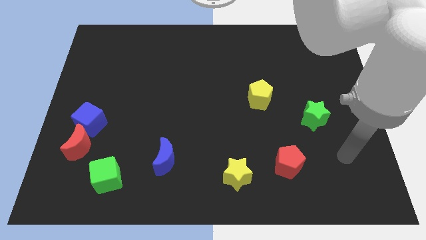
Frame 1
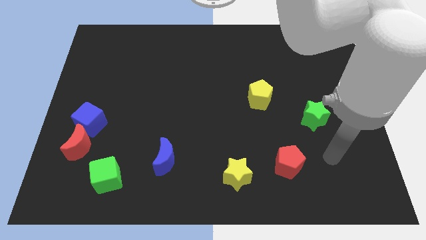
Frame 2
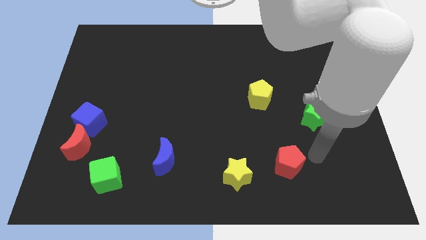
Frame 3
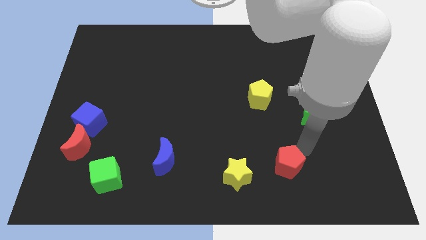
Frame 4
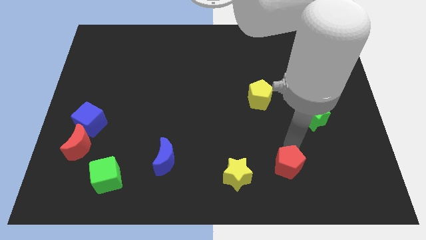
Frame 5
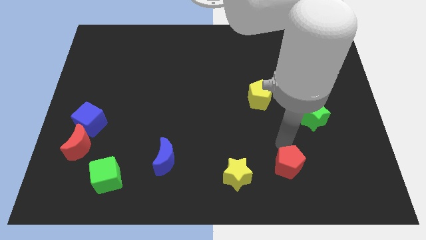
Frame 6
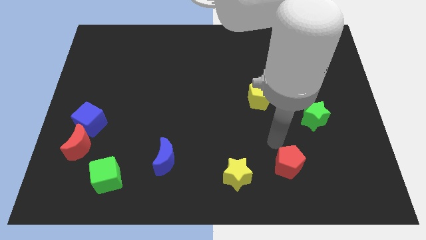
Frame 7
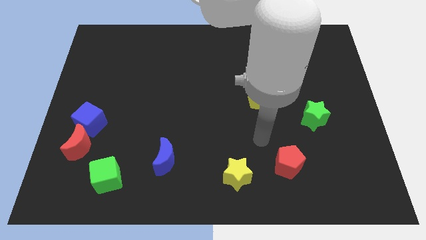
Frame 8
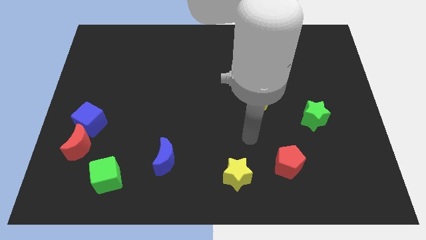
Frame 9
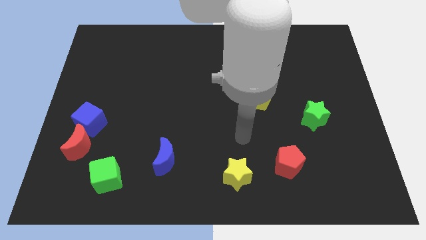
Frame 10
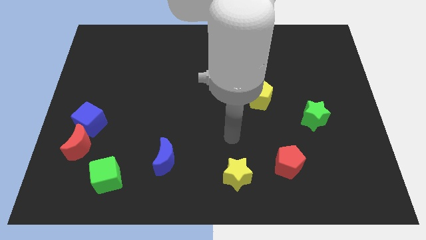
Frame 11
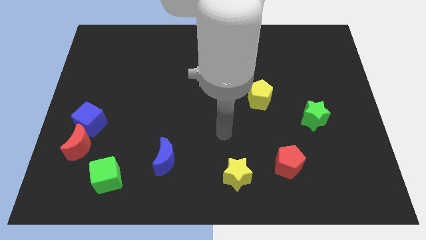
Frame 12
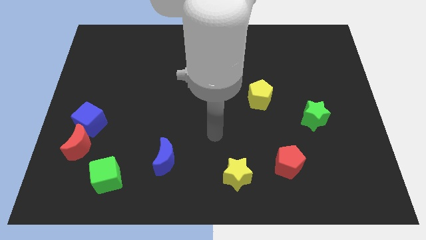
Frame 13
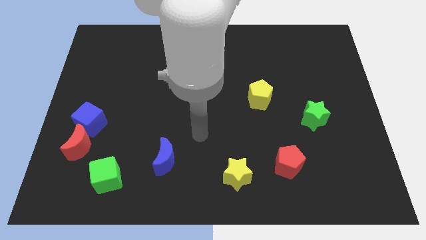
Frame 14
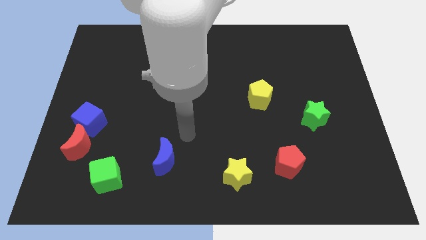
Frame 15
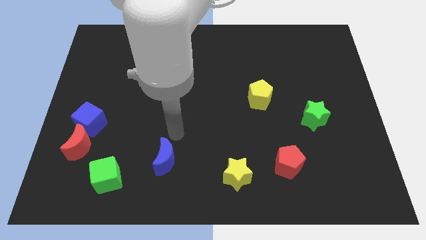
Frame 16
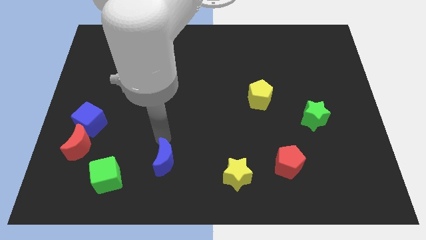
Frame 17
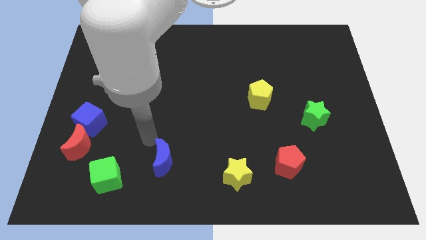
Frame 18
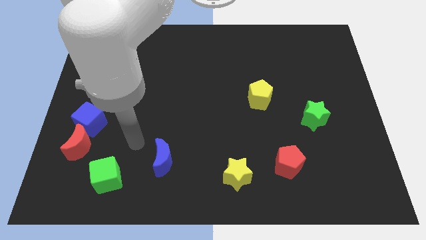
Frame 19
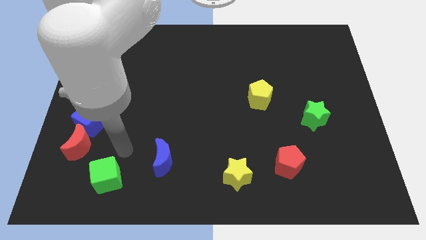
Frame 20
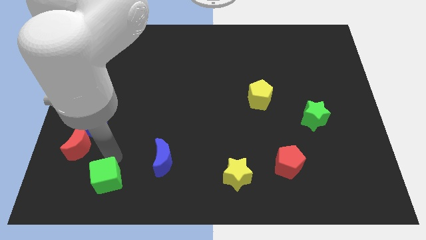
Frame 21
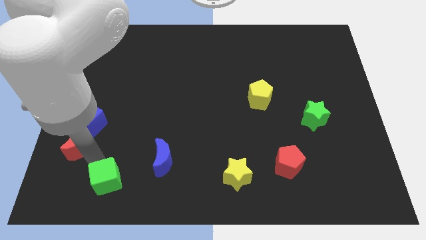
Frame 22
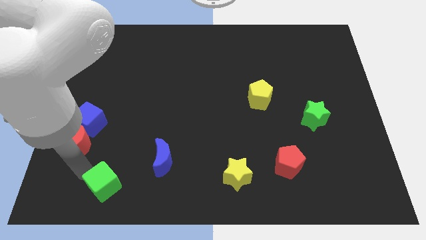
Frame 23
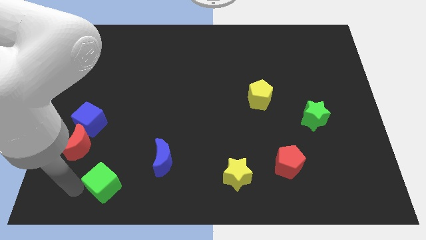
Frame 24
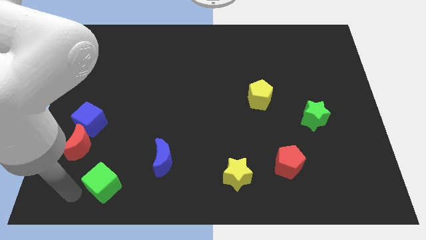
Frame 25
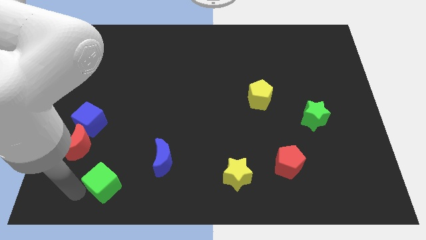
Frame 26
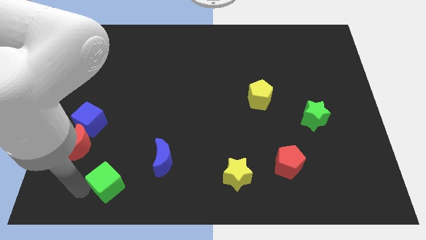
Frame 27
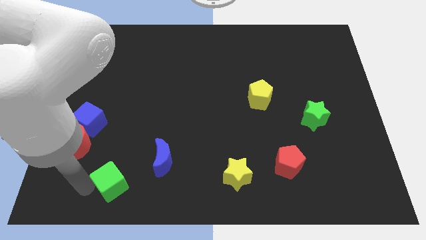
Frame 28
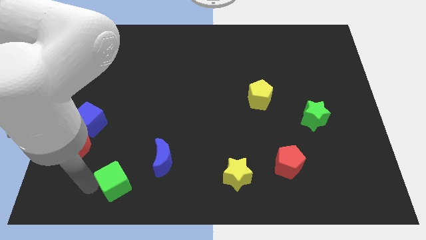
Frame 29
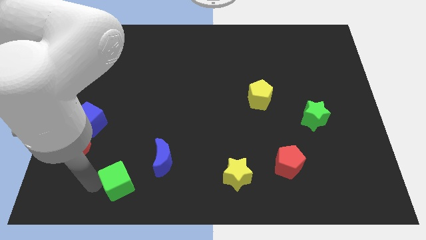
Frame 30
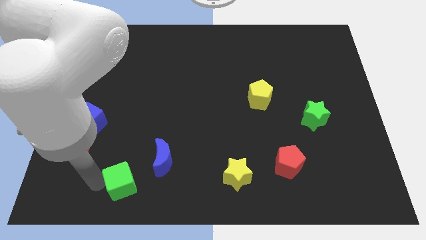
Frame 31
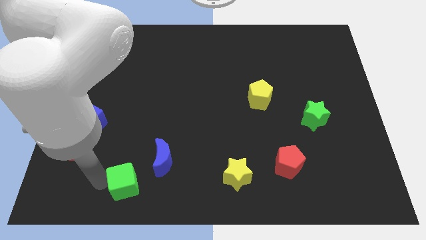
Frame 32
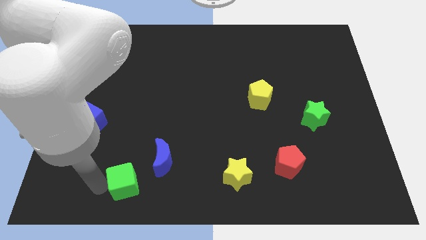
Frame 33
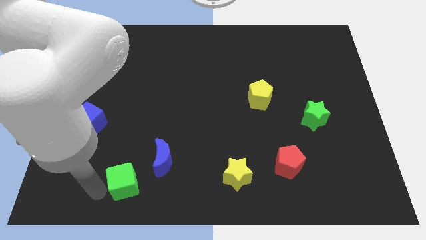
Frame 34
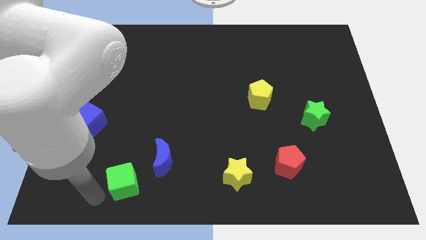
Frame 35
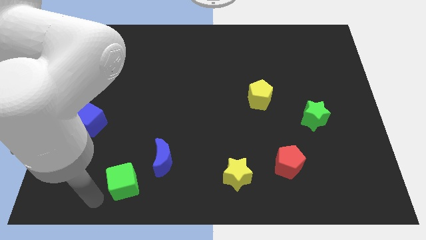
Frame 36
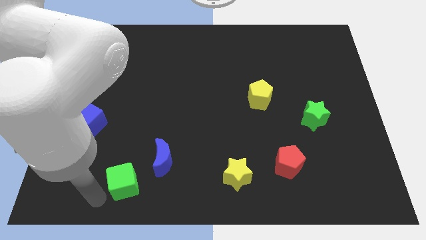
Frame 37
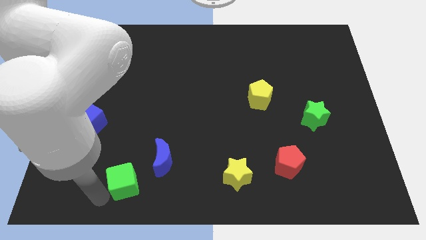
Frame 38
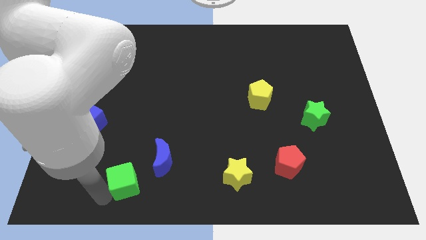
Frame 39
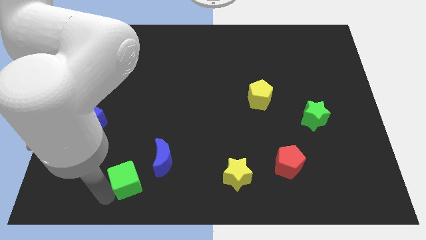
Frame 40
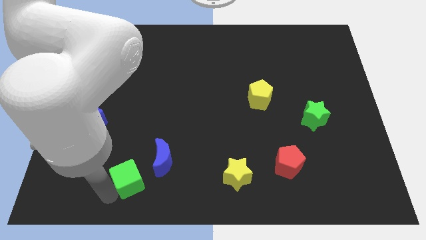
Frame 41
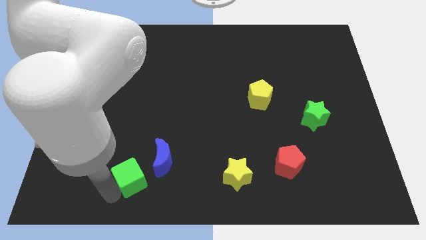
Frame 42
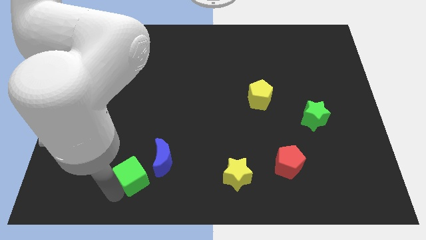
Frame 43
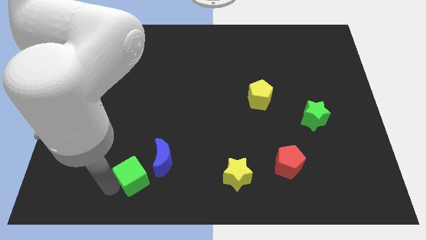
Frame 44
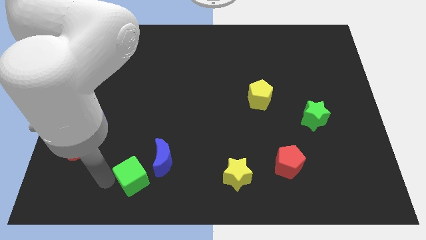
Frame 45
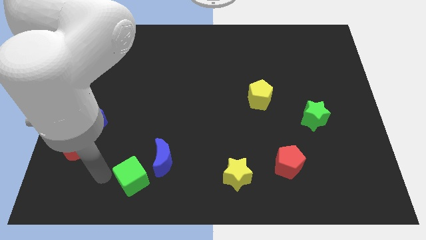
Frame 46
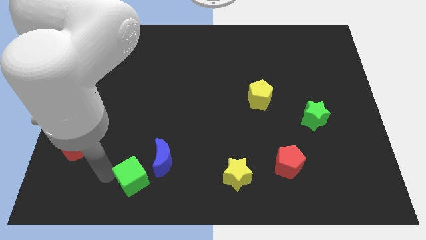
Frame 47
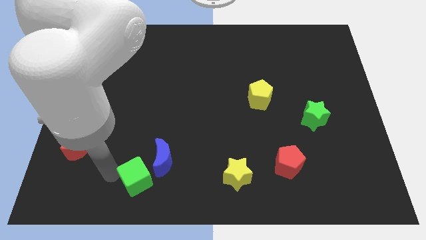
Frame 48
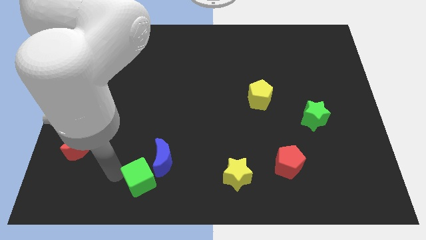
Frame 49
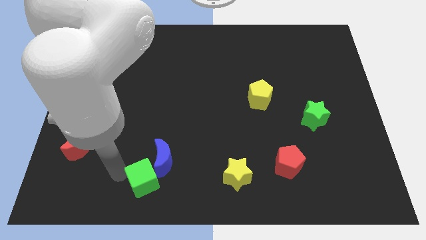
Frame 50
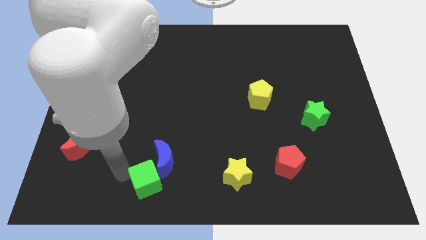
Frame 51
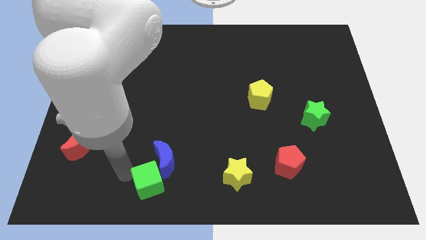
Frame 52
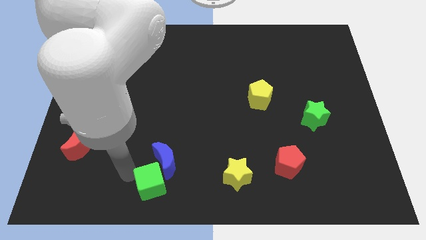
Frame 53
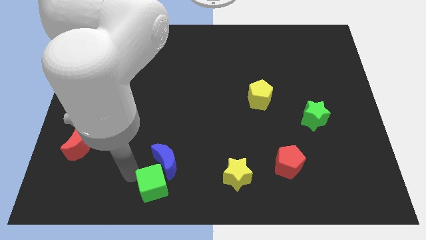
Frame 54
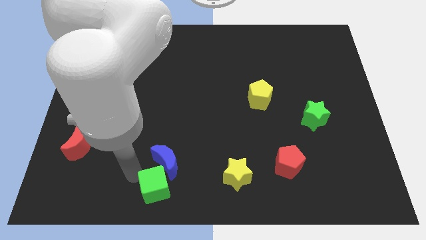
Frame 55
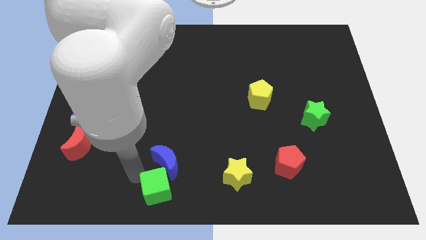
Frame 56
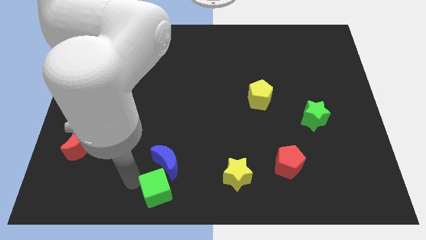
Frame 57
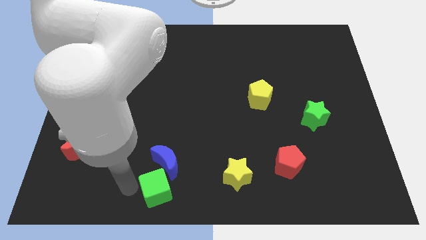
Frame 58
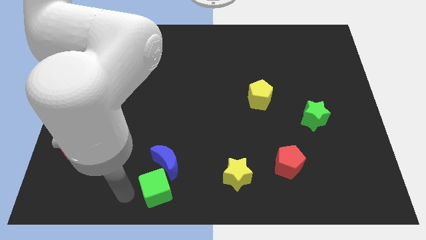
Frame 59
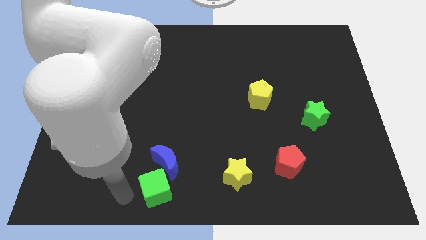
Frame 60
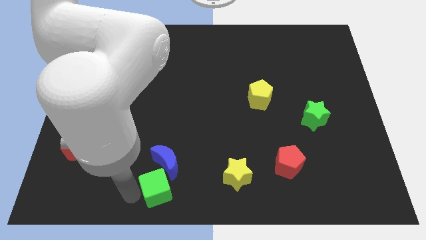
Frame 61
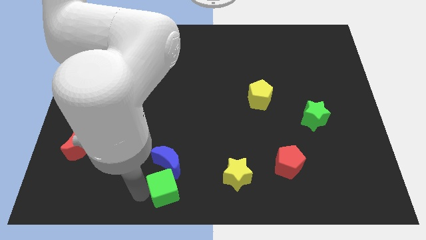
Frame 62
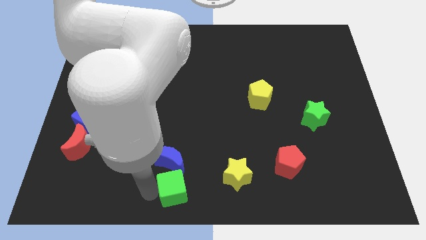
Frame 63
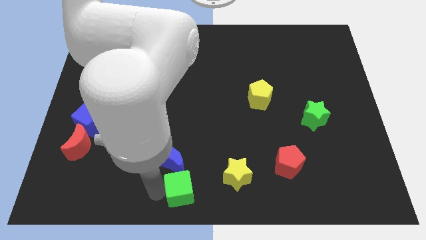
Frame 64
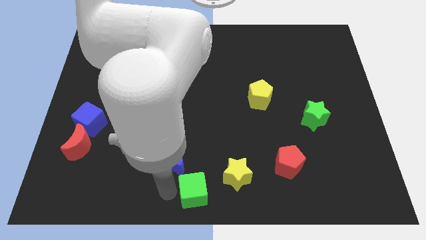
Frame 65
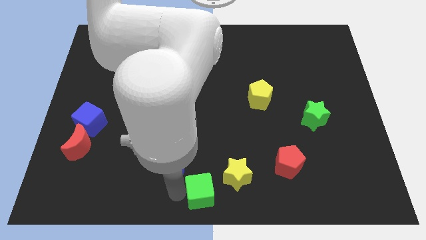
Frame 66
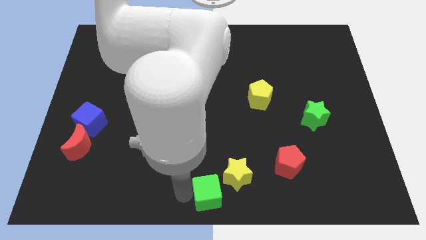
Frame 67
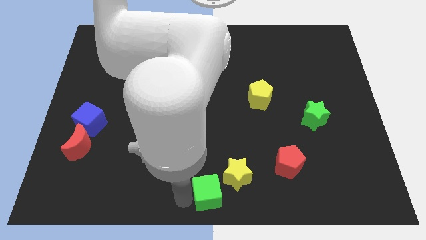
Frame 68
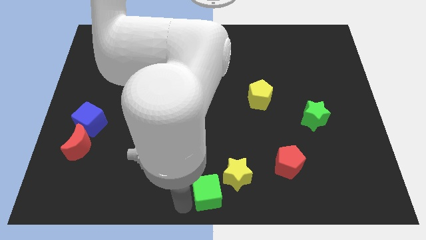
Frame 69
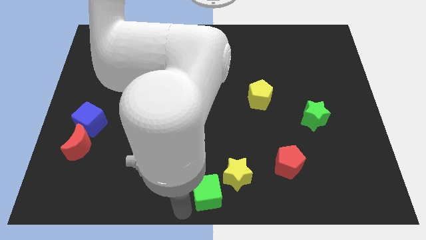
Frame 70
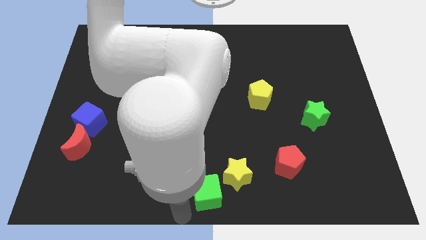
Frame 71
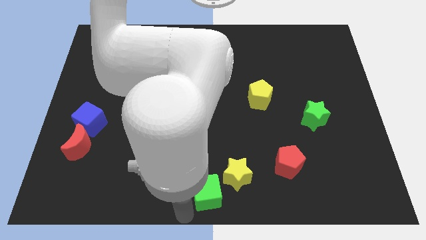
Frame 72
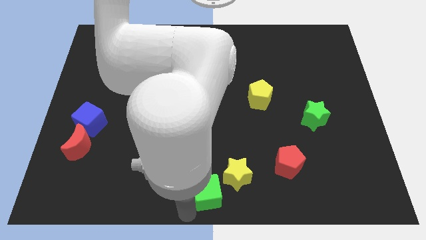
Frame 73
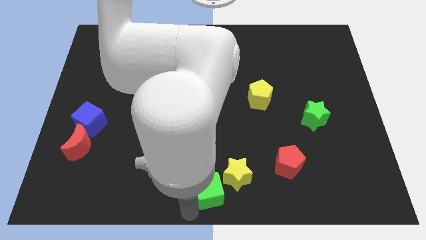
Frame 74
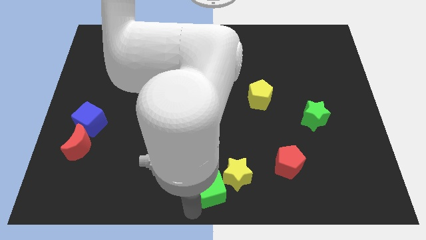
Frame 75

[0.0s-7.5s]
push the green cube next to the yellow star

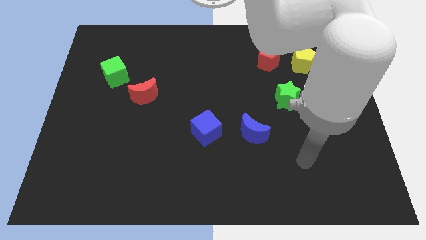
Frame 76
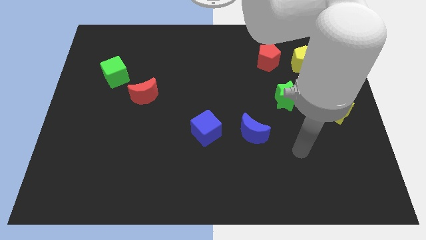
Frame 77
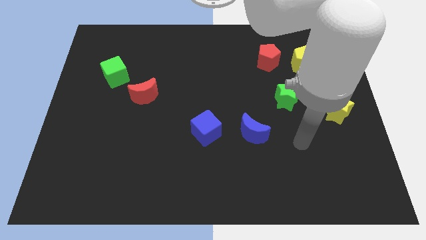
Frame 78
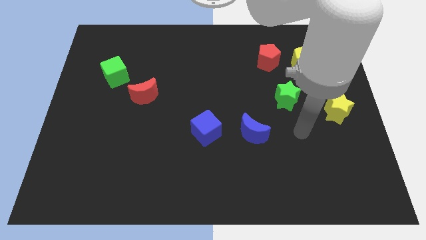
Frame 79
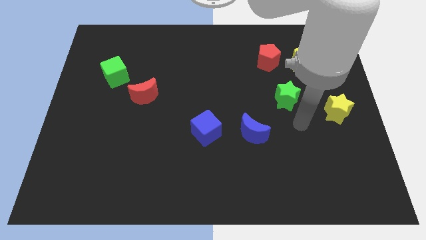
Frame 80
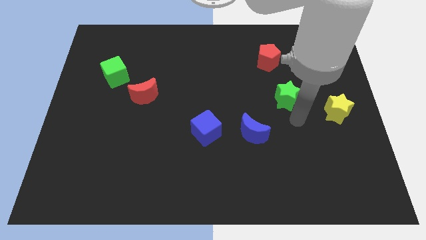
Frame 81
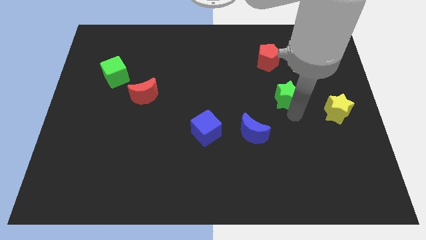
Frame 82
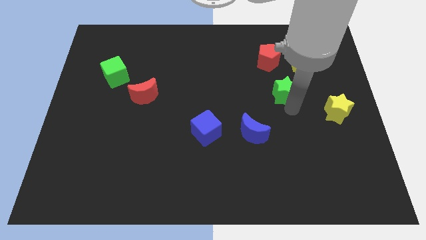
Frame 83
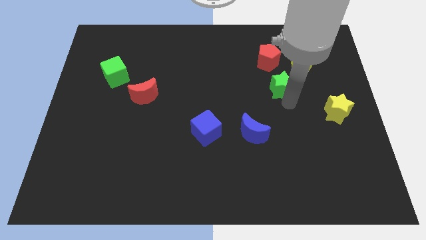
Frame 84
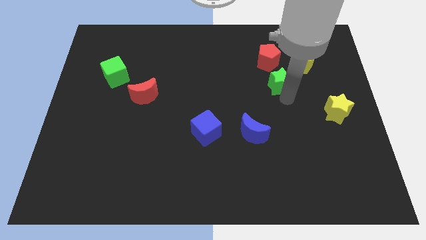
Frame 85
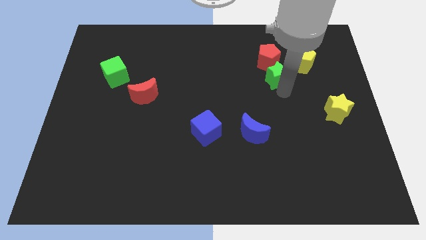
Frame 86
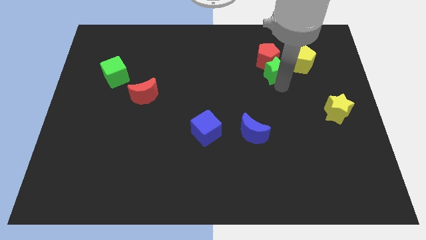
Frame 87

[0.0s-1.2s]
move the green star to the red pentagon
